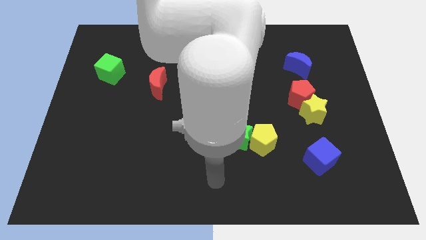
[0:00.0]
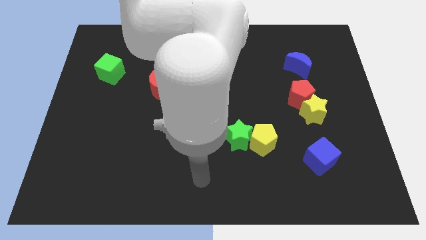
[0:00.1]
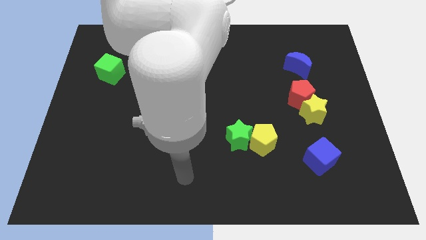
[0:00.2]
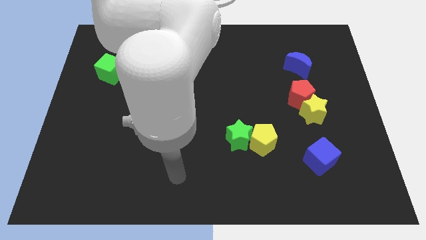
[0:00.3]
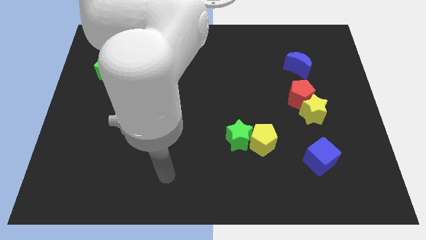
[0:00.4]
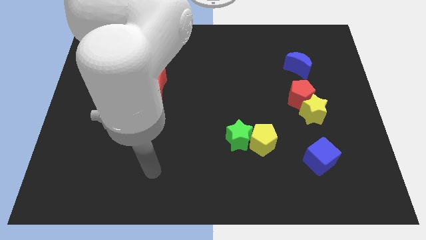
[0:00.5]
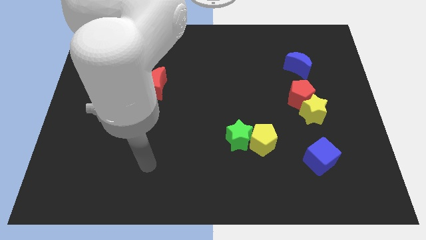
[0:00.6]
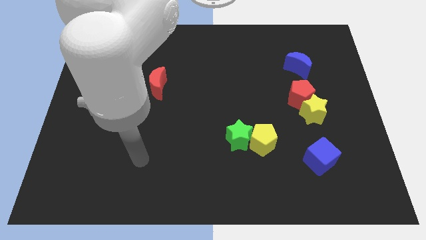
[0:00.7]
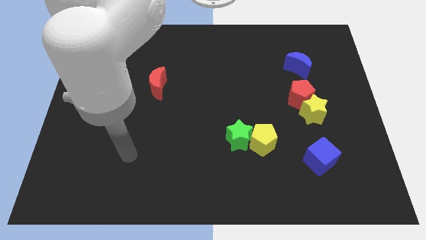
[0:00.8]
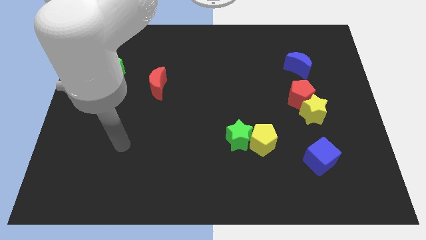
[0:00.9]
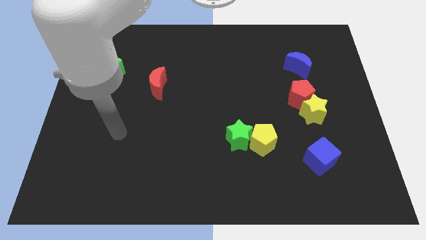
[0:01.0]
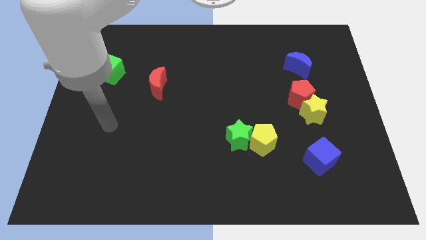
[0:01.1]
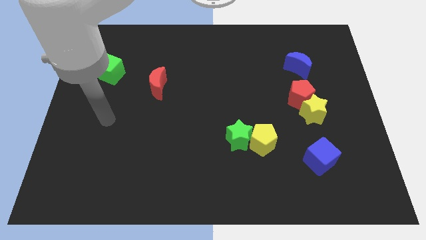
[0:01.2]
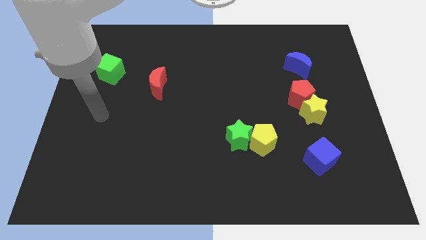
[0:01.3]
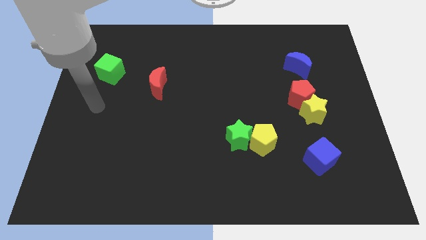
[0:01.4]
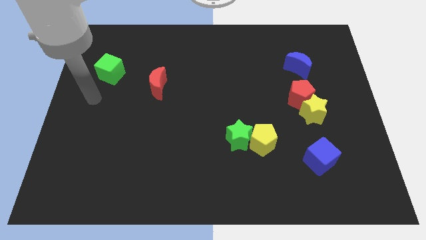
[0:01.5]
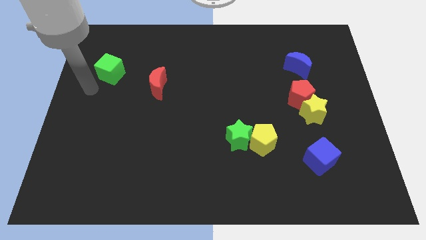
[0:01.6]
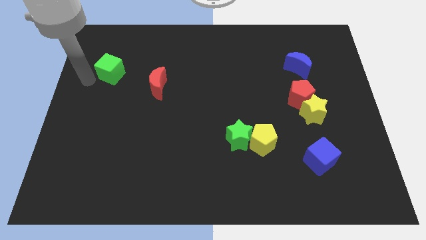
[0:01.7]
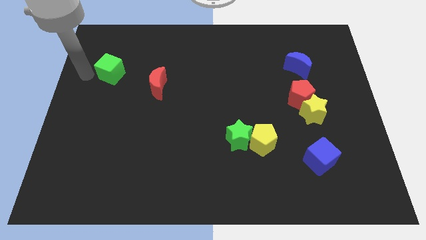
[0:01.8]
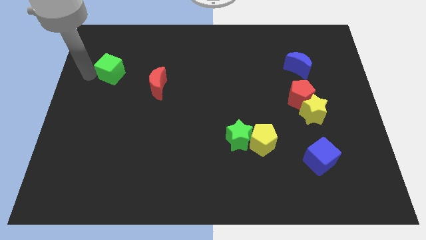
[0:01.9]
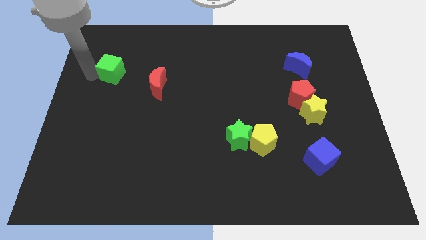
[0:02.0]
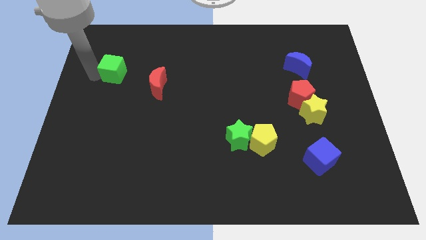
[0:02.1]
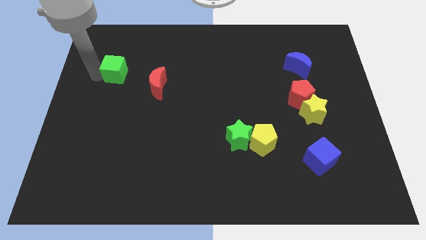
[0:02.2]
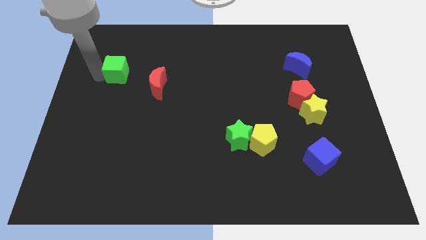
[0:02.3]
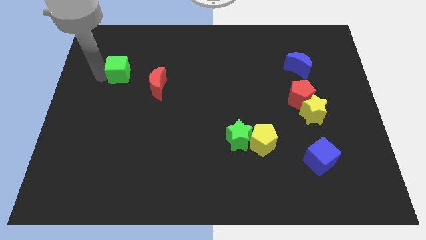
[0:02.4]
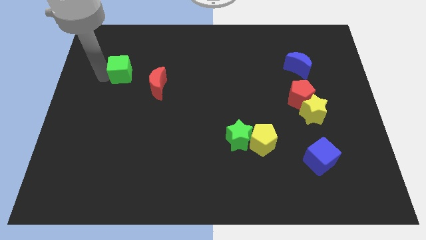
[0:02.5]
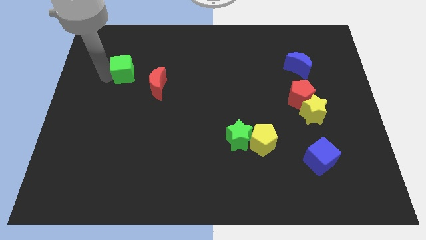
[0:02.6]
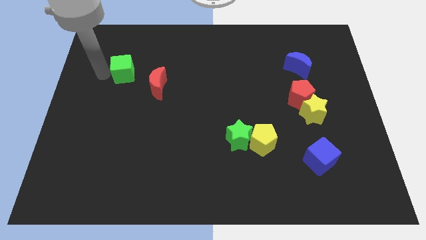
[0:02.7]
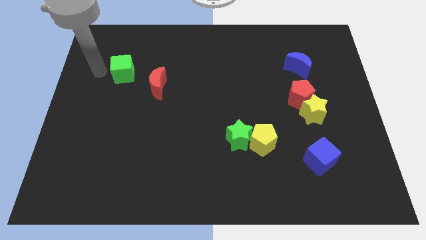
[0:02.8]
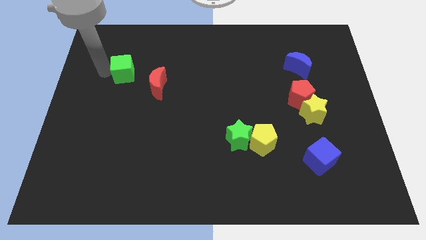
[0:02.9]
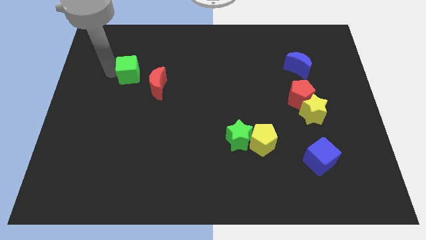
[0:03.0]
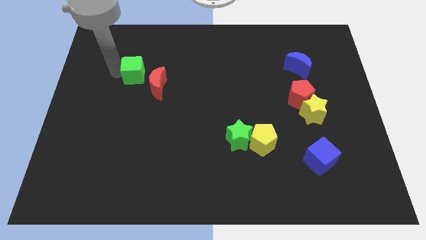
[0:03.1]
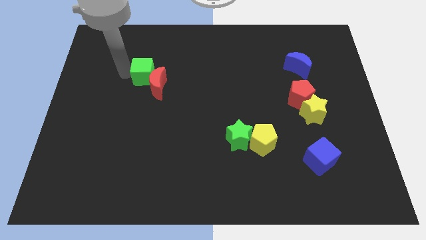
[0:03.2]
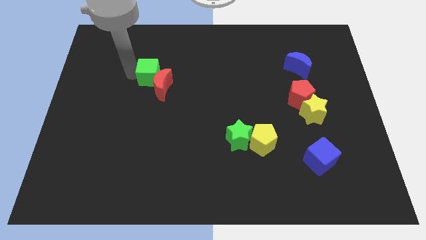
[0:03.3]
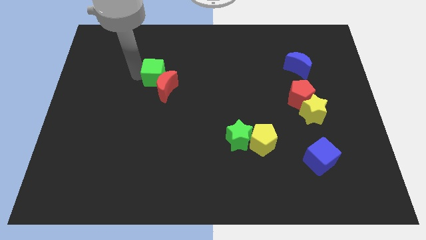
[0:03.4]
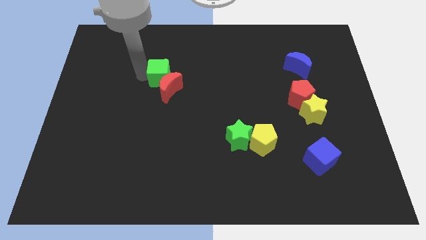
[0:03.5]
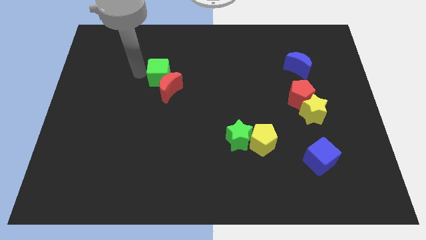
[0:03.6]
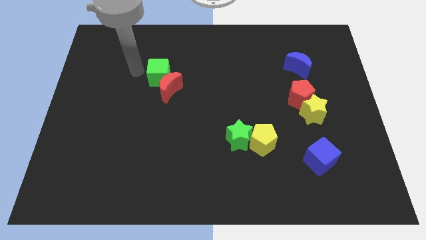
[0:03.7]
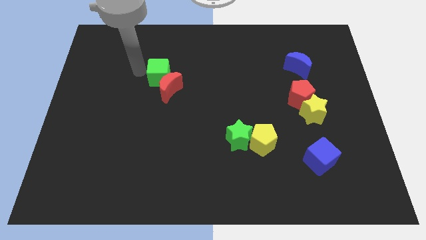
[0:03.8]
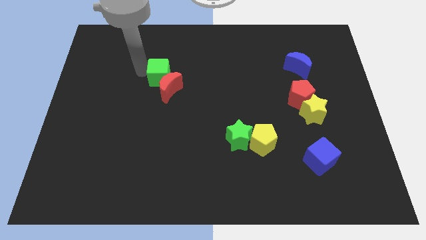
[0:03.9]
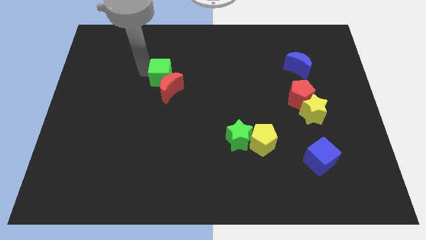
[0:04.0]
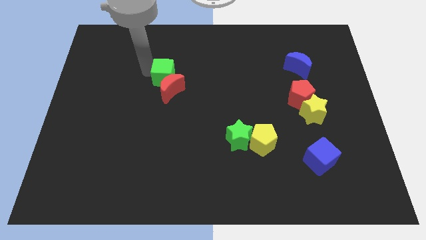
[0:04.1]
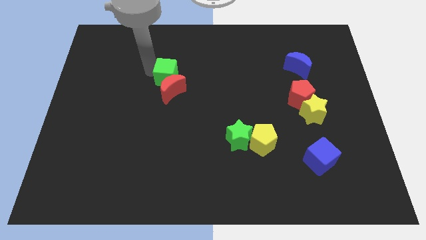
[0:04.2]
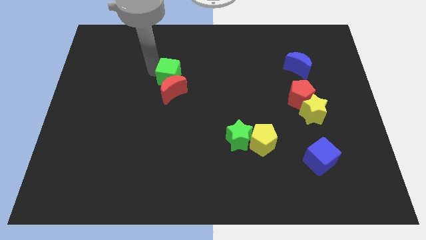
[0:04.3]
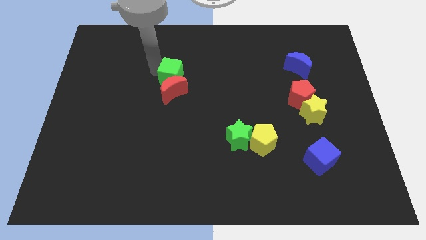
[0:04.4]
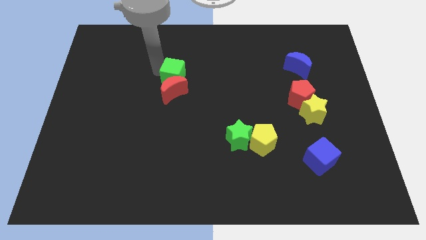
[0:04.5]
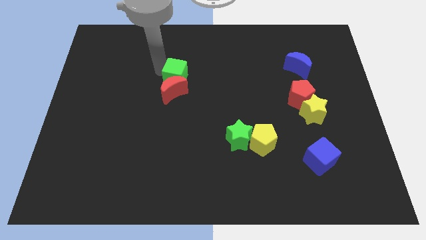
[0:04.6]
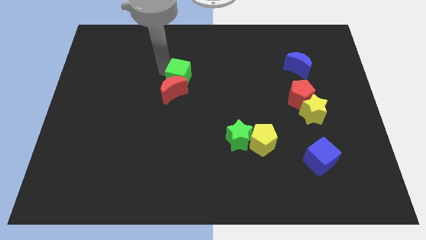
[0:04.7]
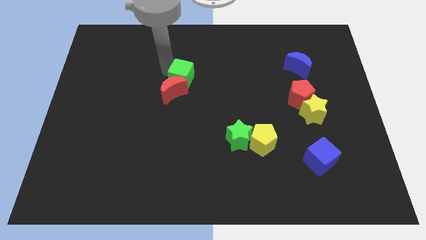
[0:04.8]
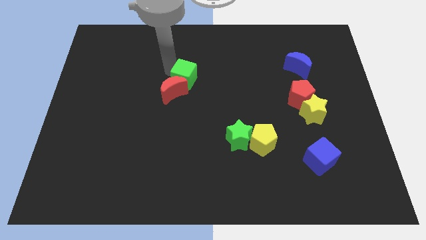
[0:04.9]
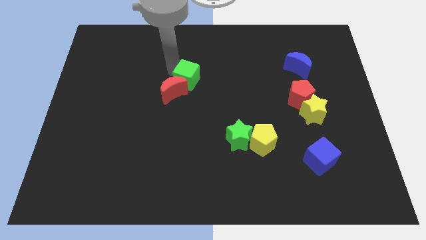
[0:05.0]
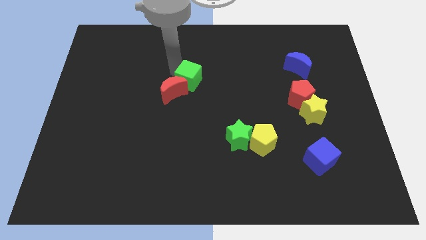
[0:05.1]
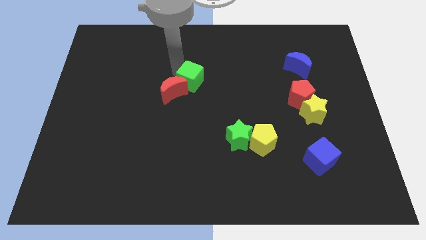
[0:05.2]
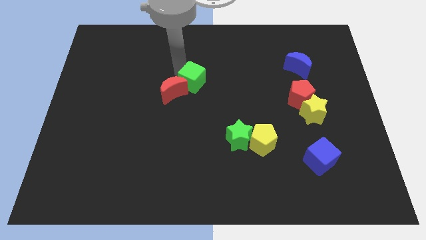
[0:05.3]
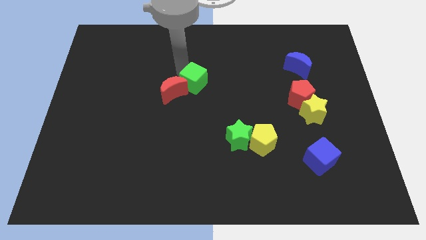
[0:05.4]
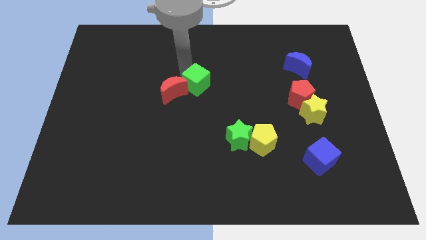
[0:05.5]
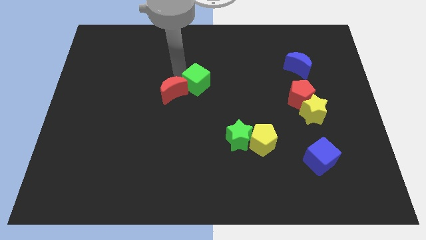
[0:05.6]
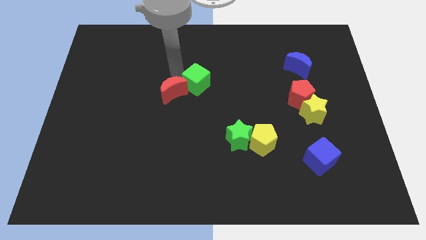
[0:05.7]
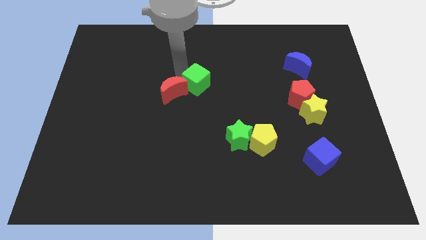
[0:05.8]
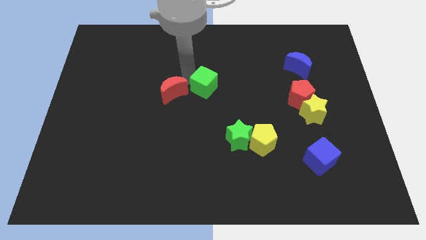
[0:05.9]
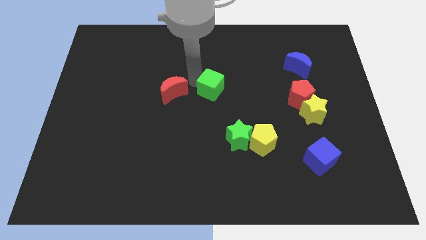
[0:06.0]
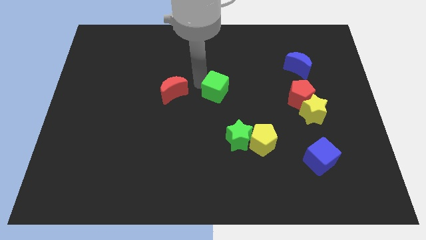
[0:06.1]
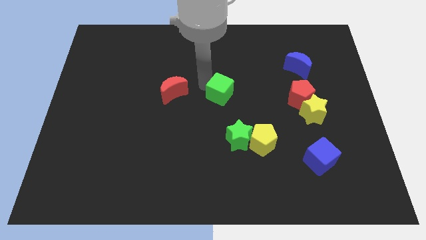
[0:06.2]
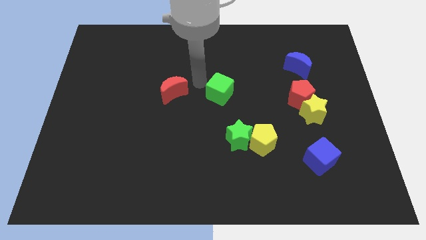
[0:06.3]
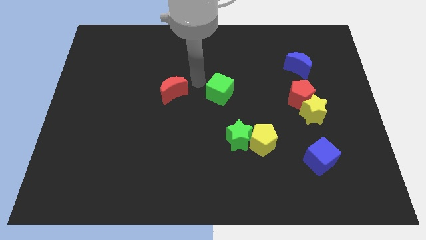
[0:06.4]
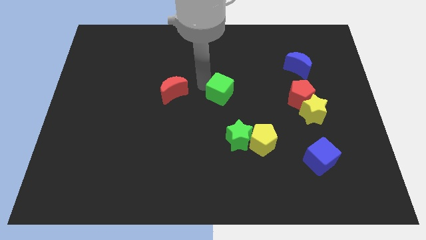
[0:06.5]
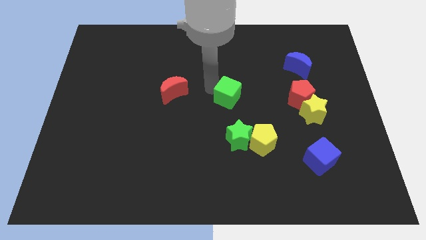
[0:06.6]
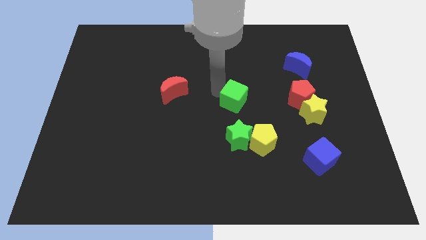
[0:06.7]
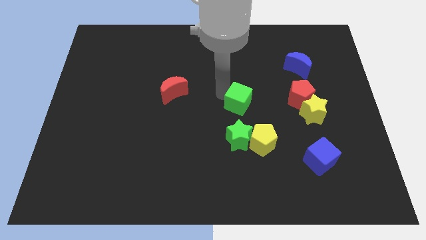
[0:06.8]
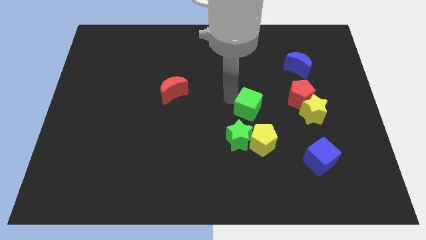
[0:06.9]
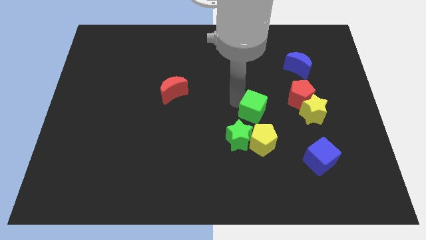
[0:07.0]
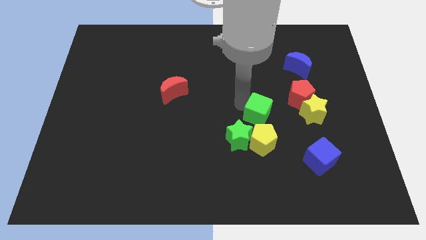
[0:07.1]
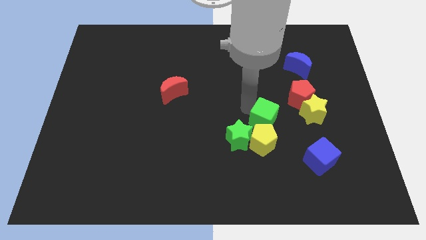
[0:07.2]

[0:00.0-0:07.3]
push the green cube to the top right side of the yellow pentagon

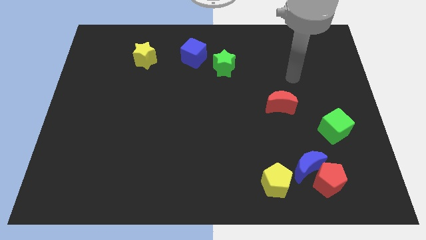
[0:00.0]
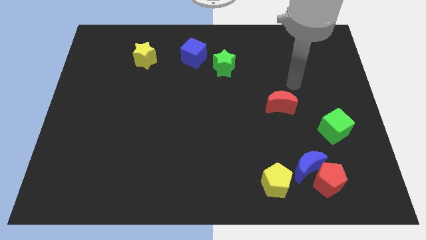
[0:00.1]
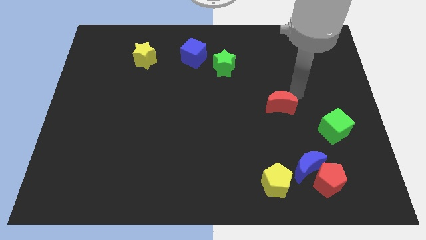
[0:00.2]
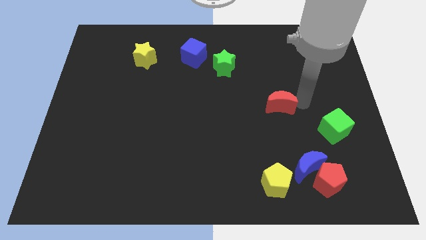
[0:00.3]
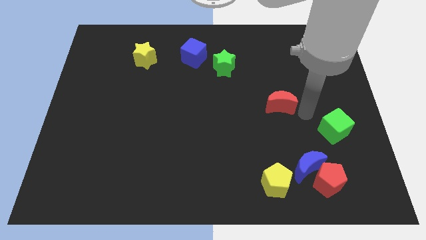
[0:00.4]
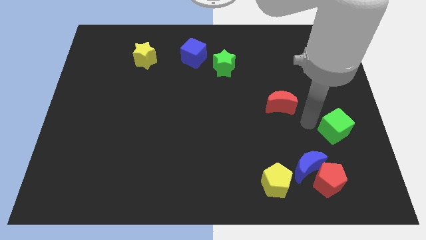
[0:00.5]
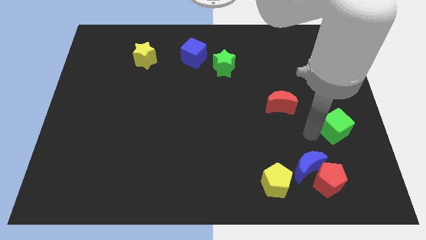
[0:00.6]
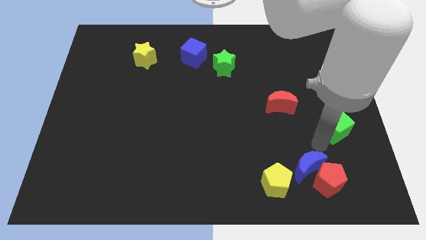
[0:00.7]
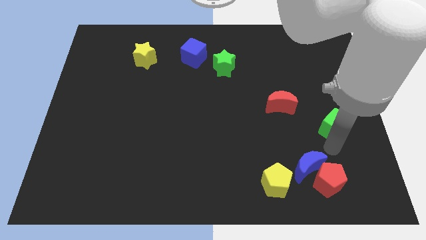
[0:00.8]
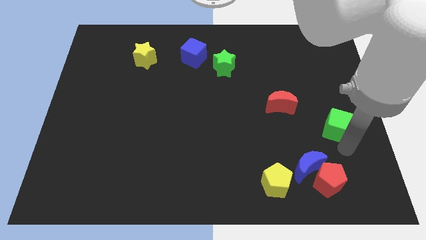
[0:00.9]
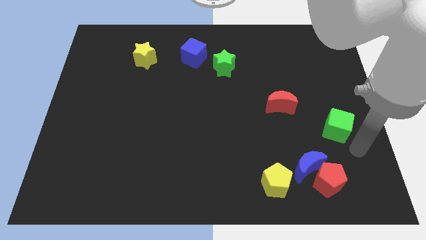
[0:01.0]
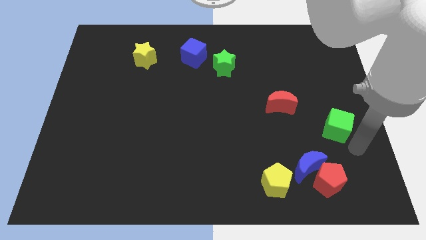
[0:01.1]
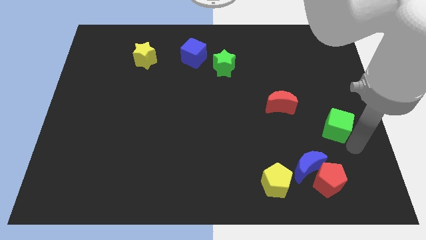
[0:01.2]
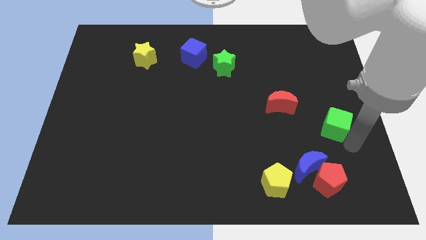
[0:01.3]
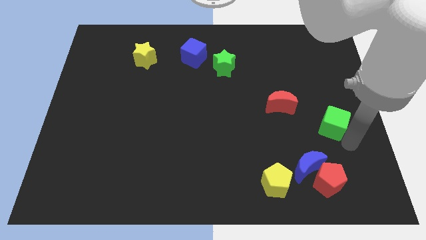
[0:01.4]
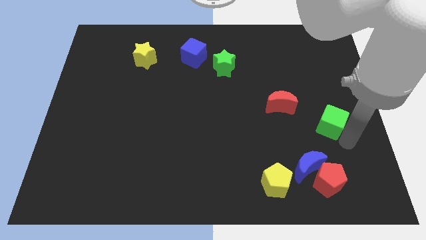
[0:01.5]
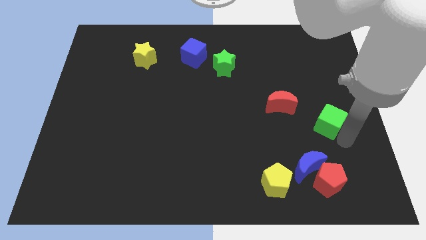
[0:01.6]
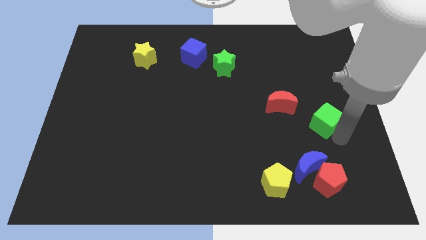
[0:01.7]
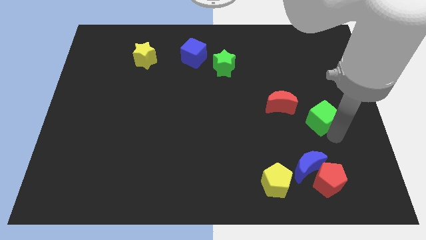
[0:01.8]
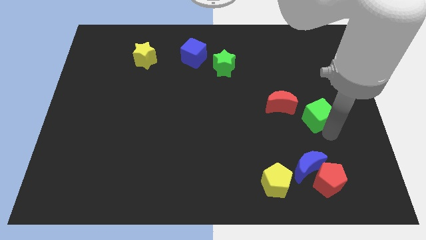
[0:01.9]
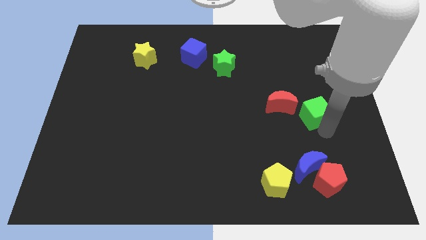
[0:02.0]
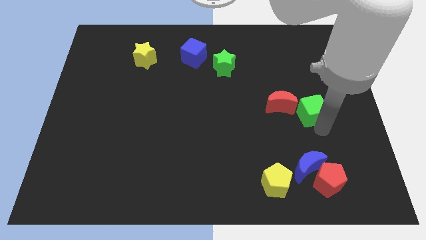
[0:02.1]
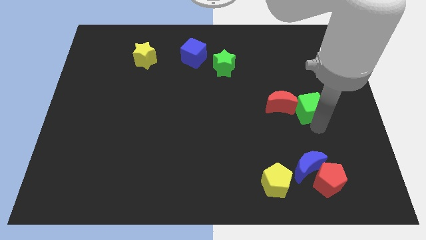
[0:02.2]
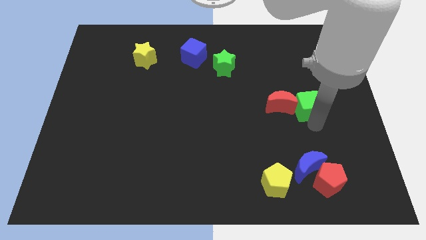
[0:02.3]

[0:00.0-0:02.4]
move the green cube to the top right side of the red moon
